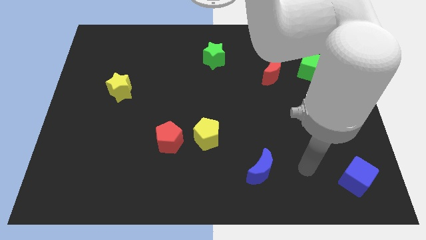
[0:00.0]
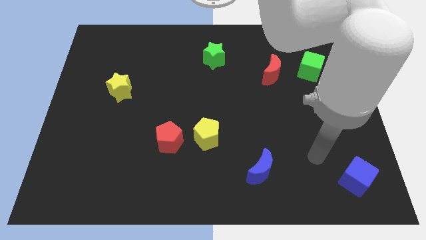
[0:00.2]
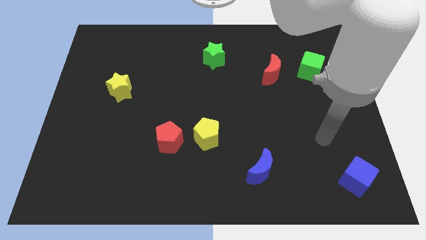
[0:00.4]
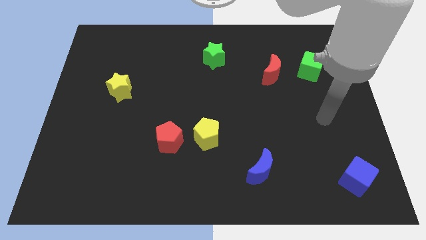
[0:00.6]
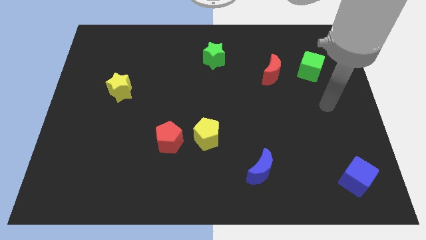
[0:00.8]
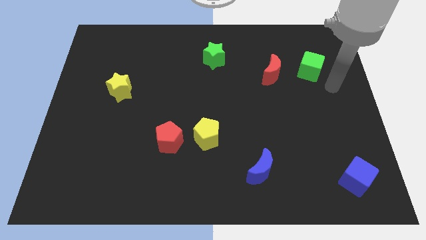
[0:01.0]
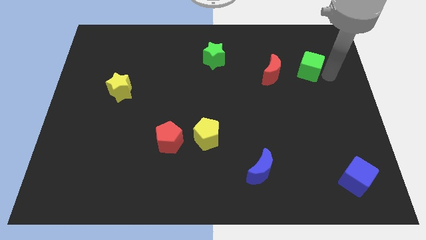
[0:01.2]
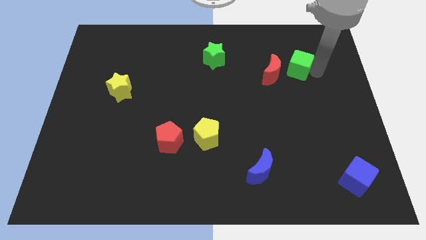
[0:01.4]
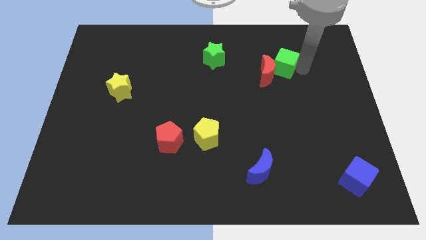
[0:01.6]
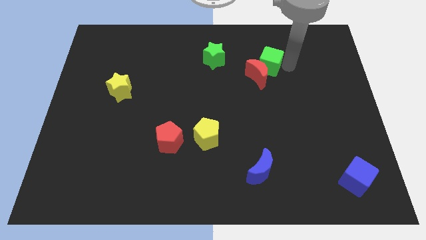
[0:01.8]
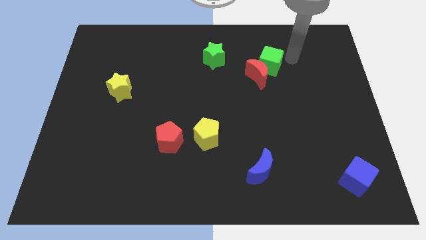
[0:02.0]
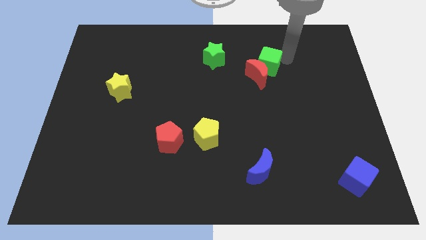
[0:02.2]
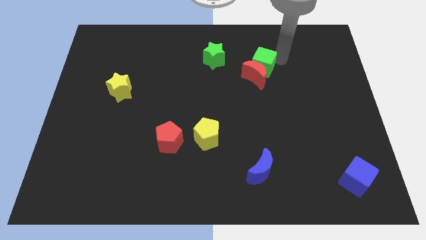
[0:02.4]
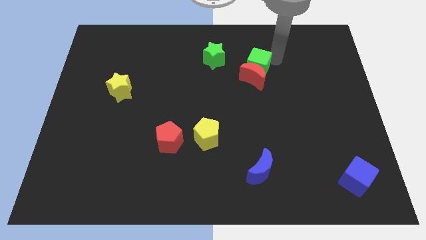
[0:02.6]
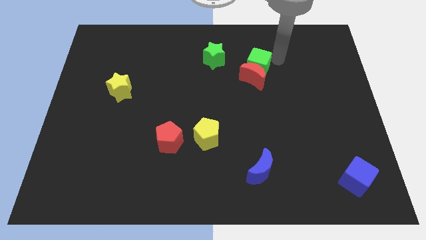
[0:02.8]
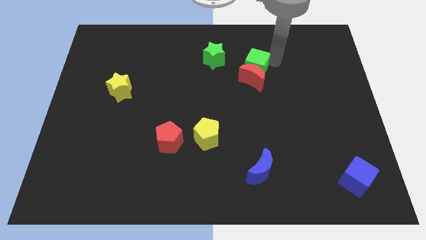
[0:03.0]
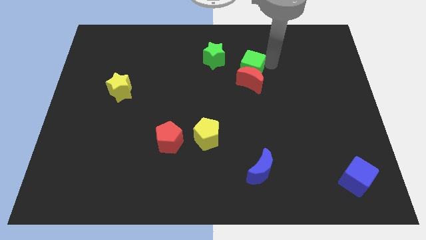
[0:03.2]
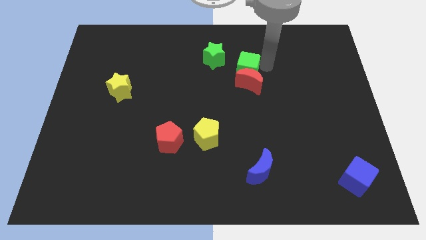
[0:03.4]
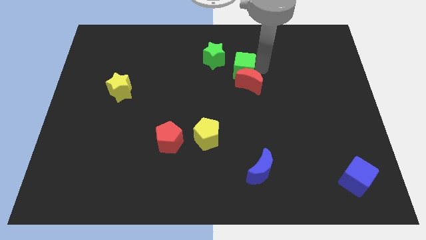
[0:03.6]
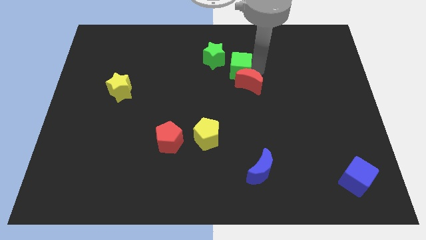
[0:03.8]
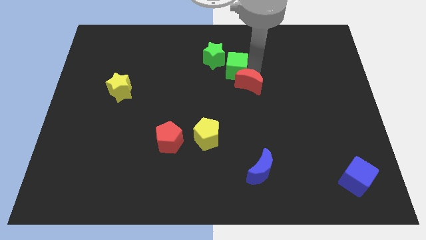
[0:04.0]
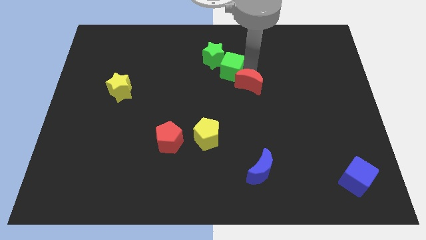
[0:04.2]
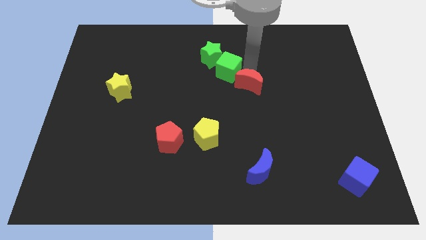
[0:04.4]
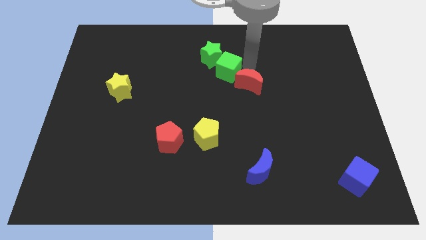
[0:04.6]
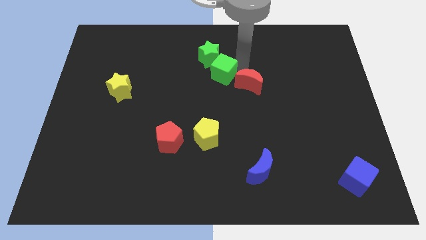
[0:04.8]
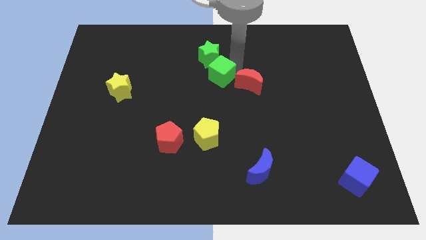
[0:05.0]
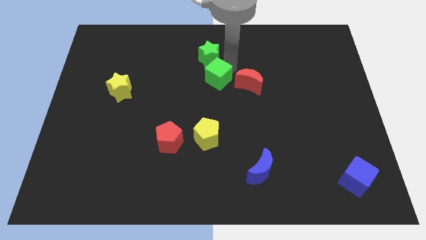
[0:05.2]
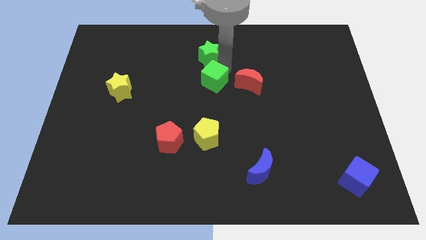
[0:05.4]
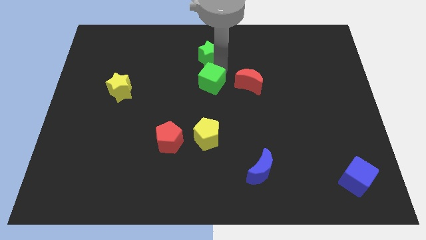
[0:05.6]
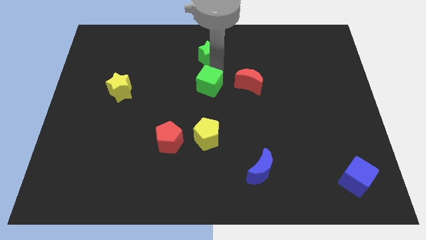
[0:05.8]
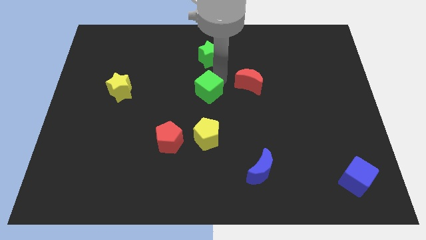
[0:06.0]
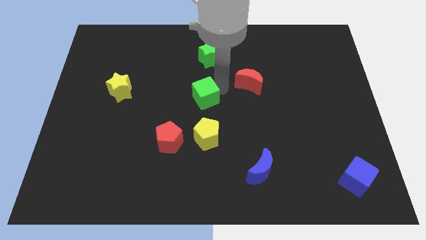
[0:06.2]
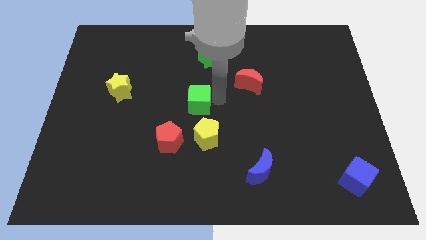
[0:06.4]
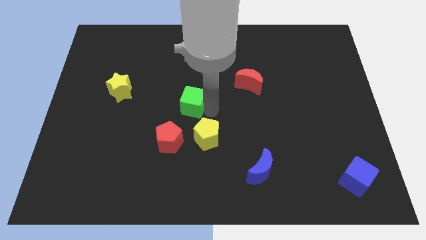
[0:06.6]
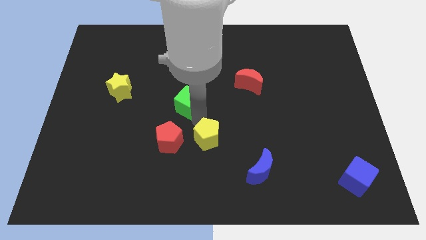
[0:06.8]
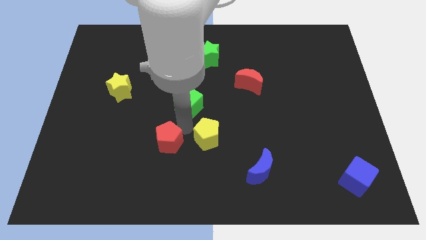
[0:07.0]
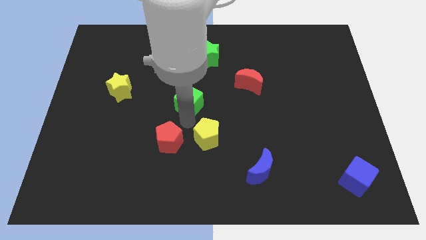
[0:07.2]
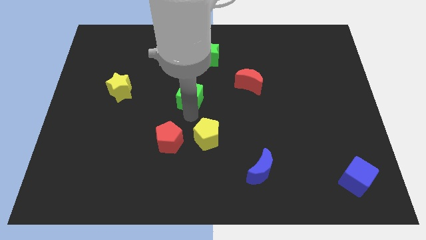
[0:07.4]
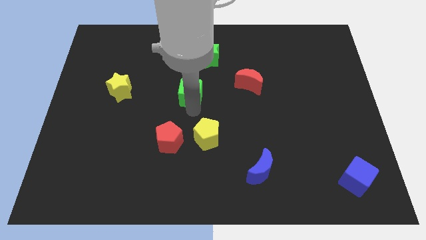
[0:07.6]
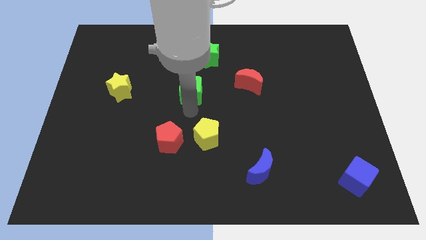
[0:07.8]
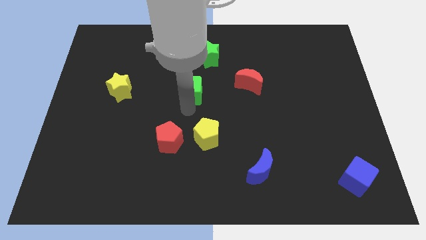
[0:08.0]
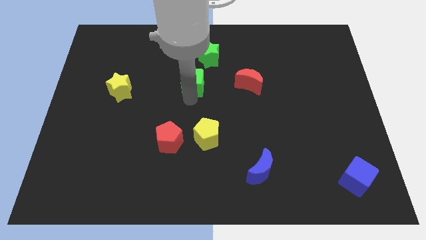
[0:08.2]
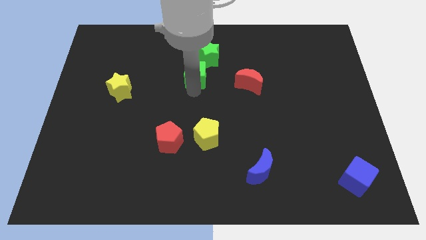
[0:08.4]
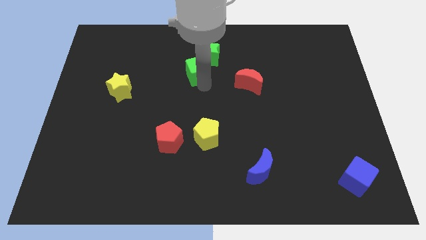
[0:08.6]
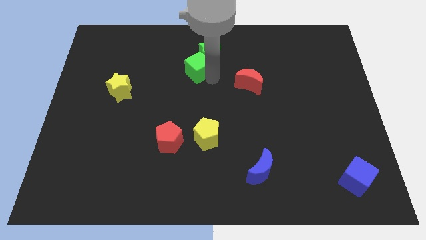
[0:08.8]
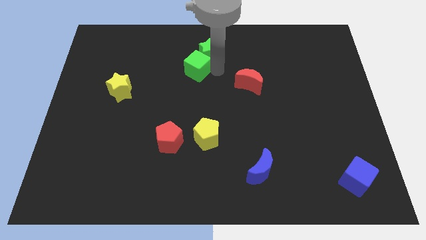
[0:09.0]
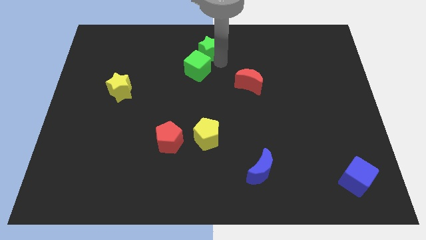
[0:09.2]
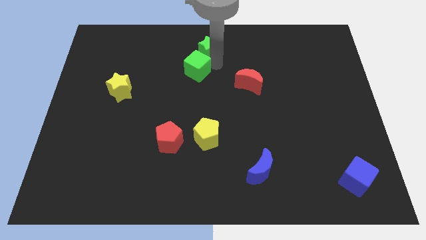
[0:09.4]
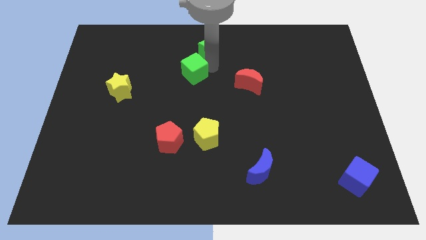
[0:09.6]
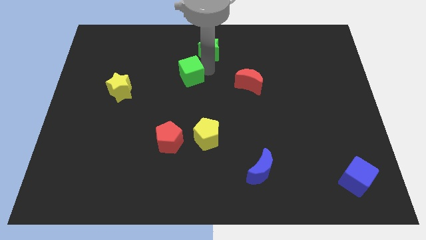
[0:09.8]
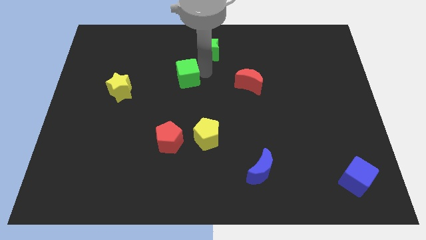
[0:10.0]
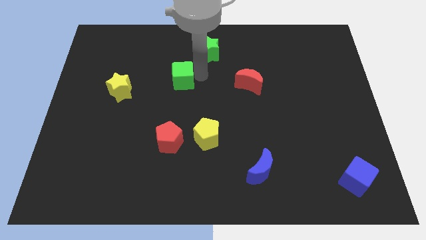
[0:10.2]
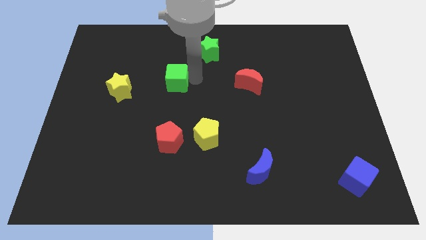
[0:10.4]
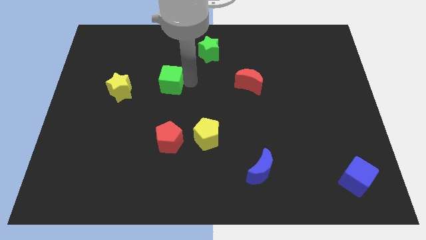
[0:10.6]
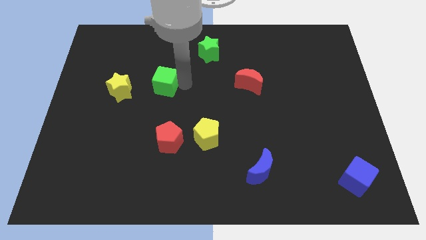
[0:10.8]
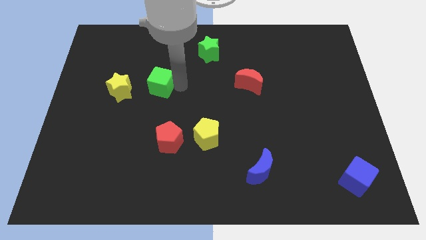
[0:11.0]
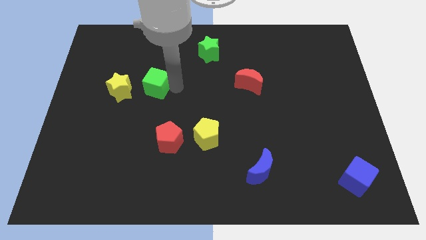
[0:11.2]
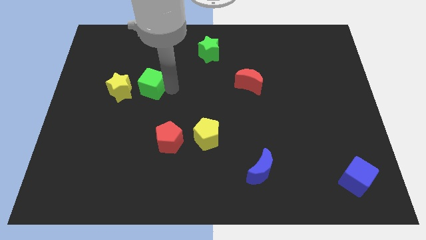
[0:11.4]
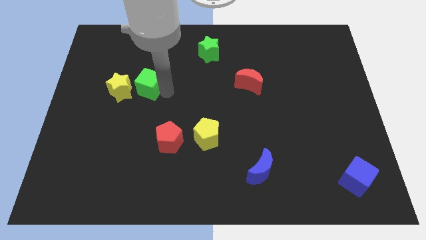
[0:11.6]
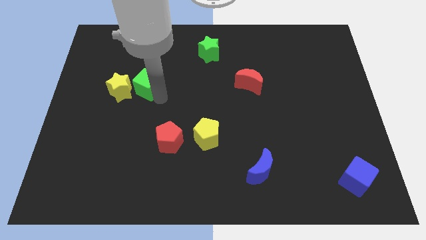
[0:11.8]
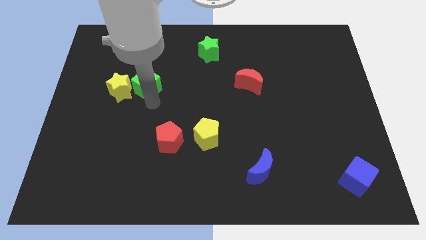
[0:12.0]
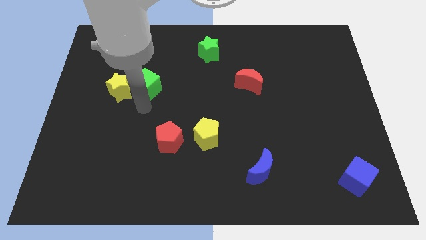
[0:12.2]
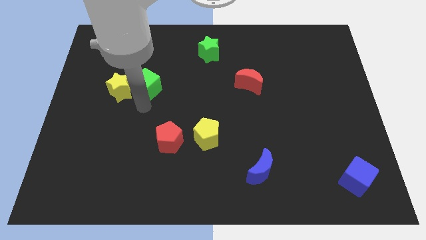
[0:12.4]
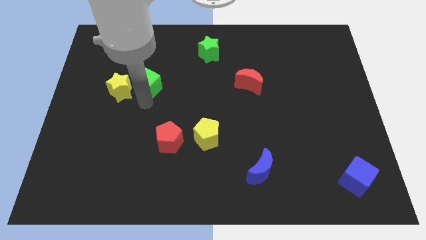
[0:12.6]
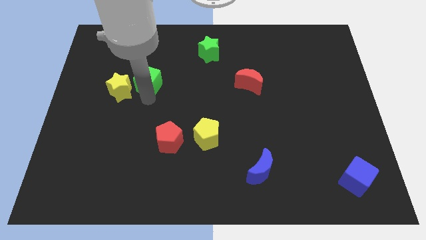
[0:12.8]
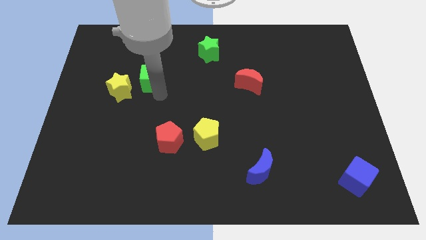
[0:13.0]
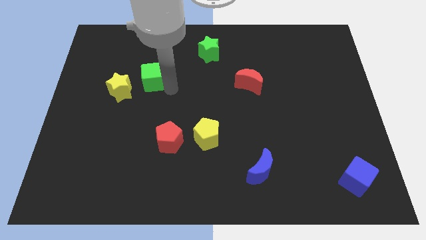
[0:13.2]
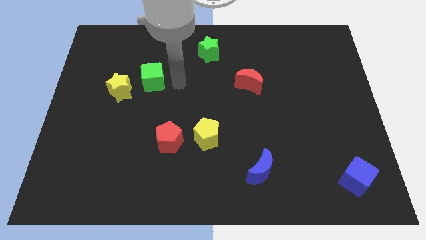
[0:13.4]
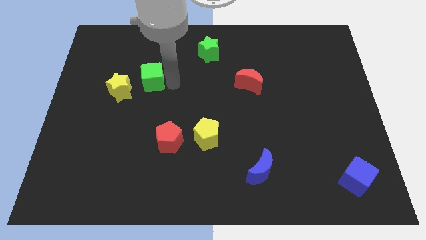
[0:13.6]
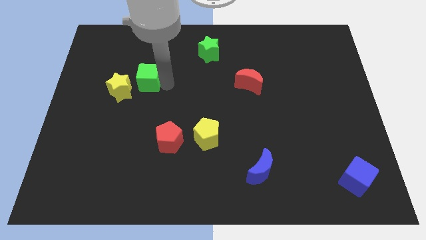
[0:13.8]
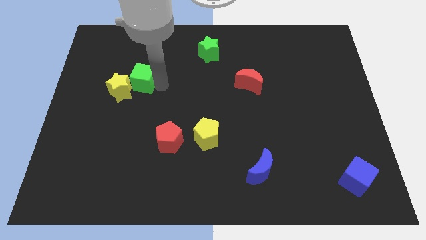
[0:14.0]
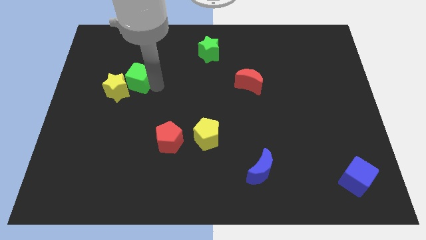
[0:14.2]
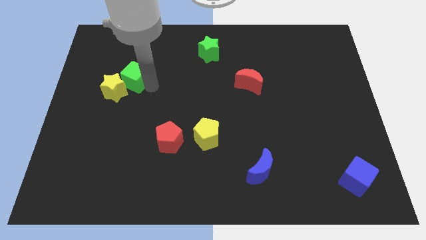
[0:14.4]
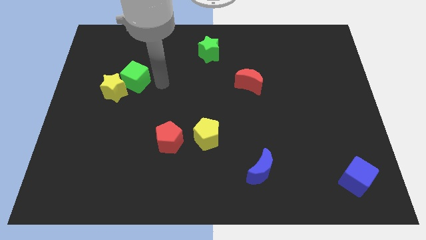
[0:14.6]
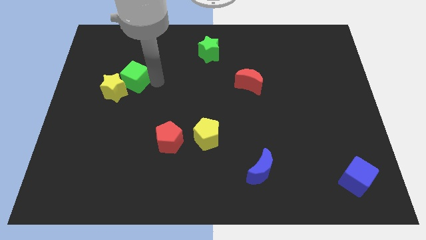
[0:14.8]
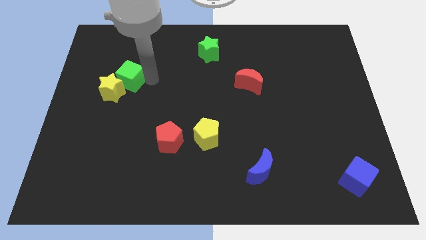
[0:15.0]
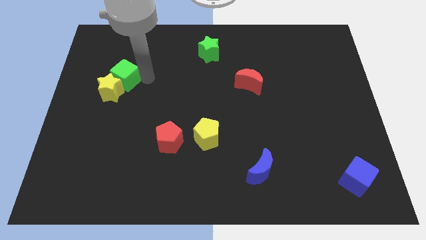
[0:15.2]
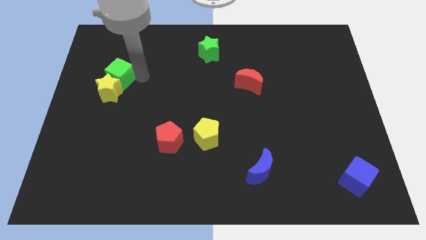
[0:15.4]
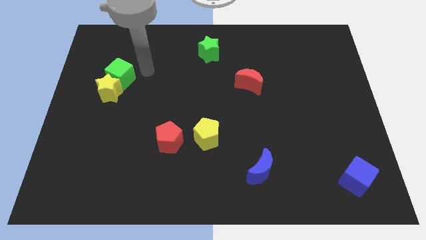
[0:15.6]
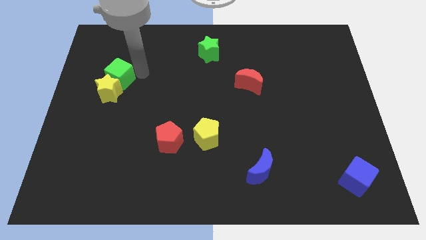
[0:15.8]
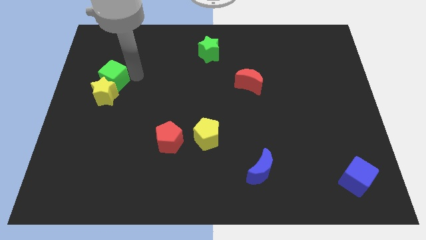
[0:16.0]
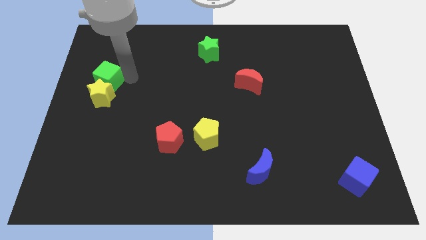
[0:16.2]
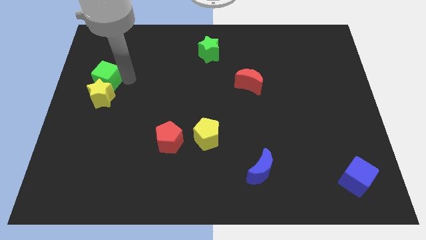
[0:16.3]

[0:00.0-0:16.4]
put the green cube to the center left
